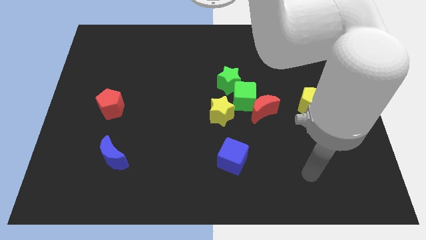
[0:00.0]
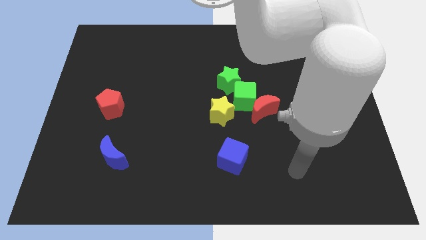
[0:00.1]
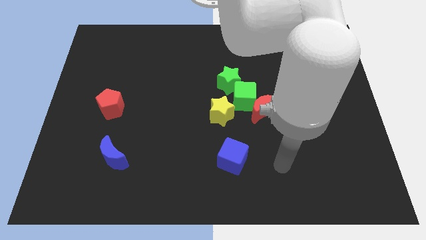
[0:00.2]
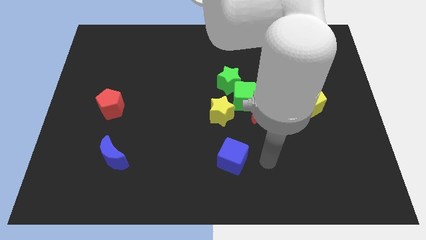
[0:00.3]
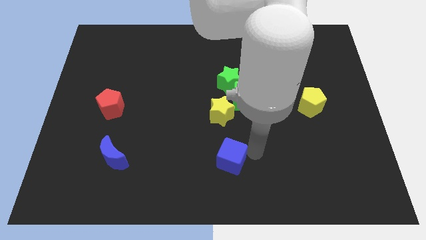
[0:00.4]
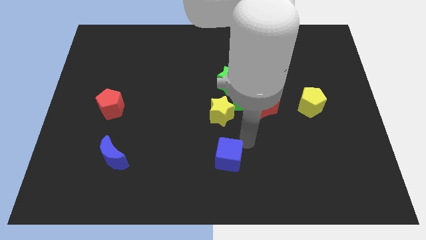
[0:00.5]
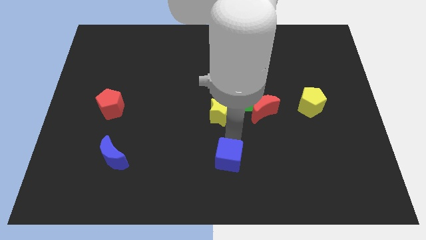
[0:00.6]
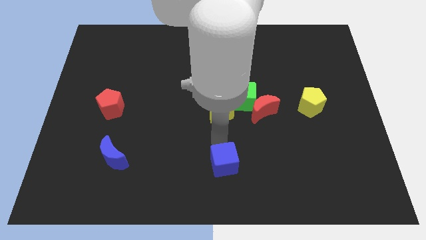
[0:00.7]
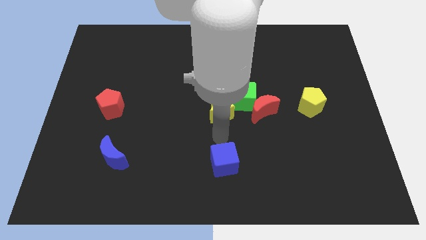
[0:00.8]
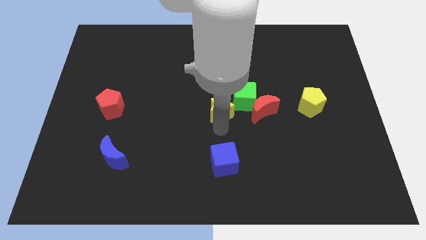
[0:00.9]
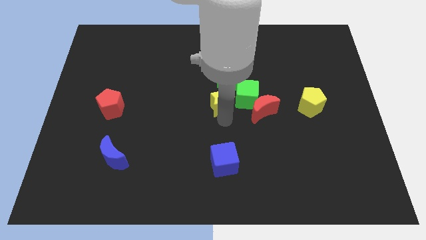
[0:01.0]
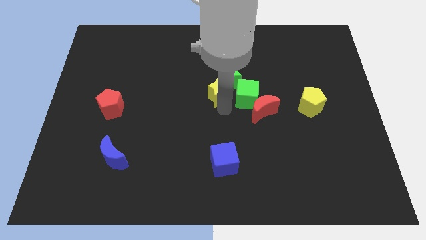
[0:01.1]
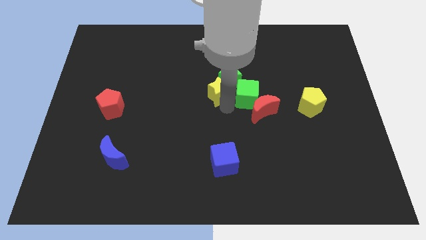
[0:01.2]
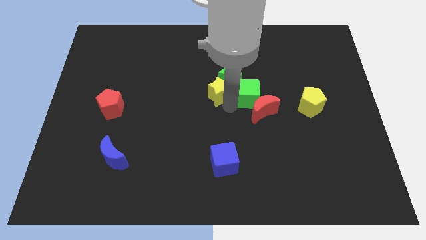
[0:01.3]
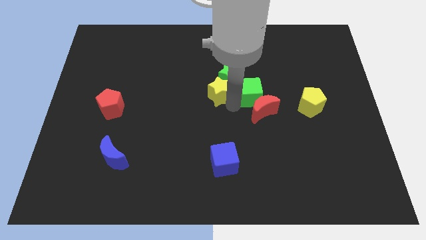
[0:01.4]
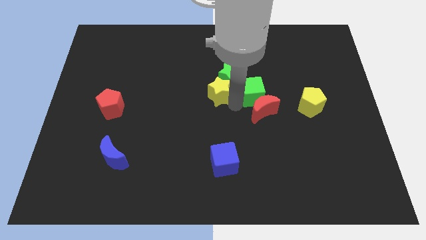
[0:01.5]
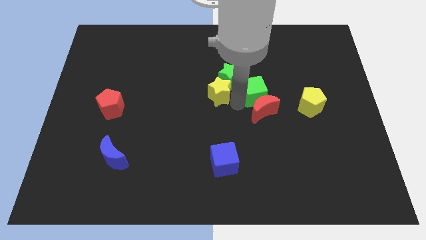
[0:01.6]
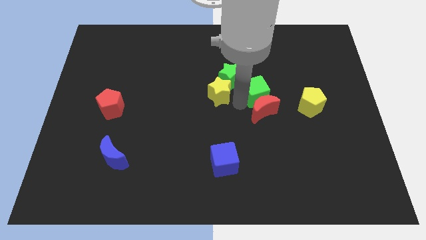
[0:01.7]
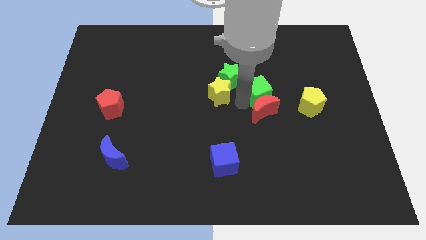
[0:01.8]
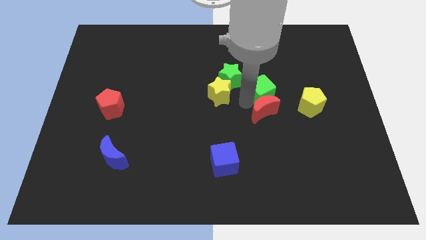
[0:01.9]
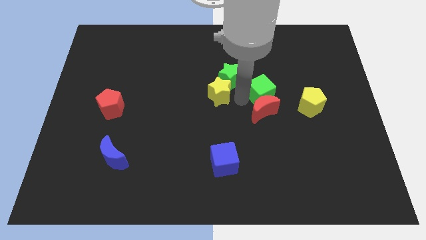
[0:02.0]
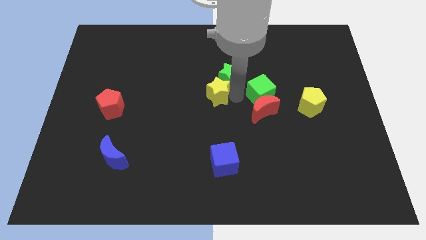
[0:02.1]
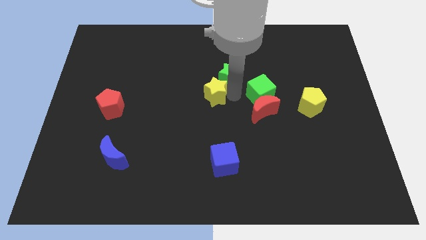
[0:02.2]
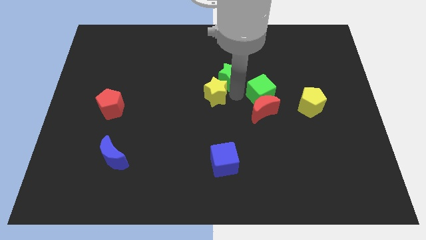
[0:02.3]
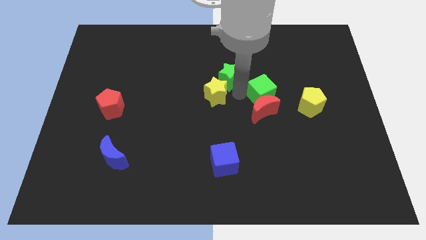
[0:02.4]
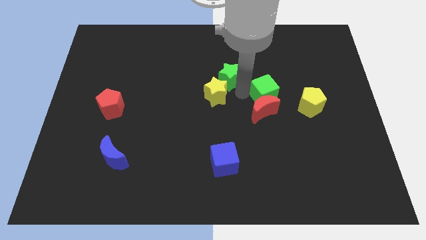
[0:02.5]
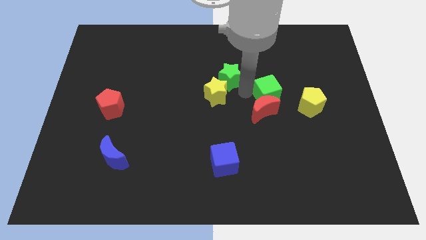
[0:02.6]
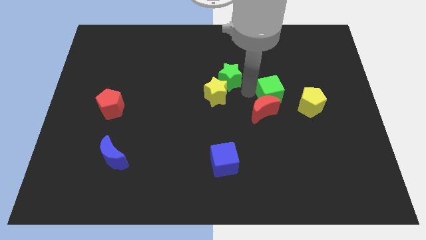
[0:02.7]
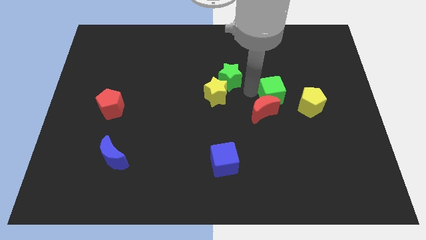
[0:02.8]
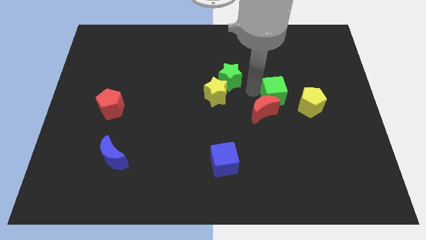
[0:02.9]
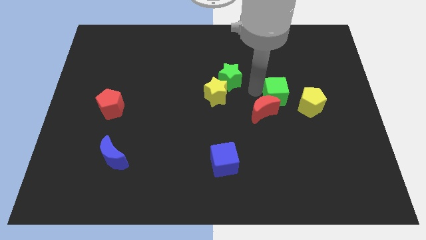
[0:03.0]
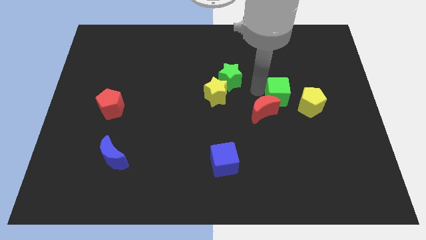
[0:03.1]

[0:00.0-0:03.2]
pull the green cube apart from the group of blocks

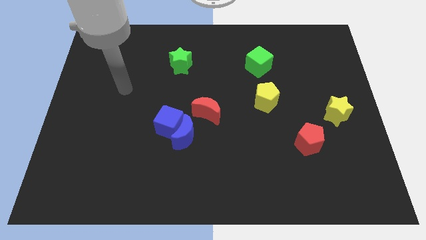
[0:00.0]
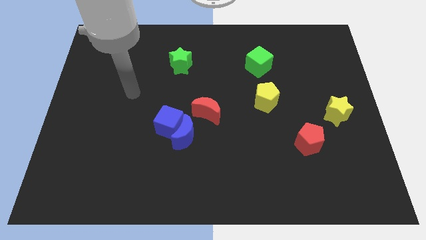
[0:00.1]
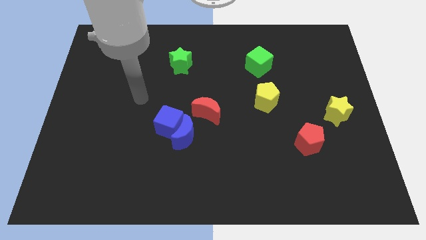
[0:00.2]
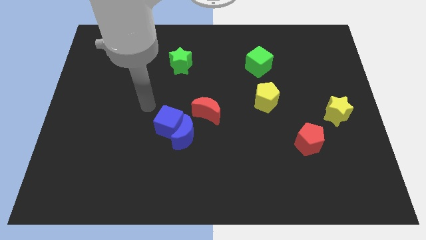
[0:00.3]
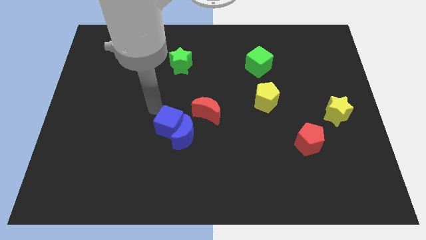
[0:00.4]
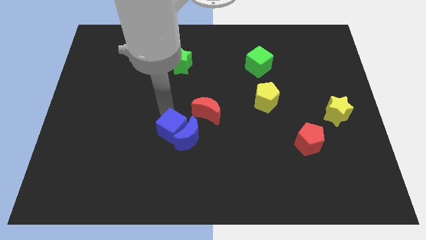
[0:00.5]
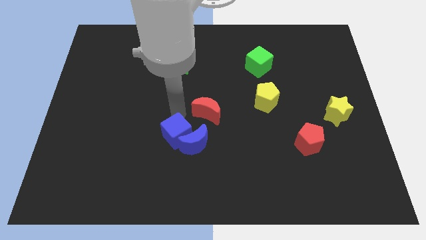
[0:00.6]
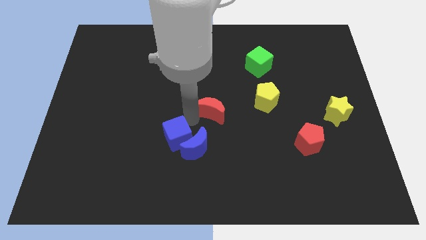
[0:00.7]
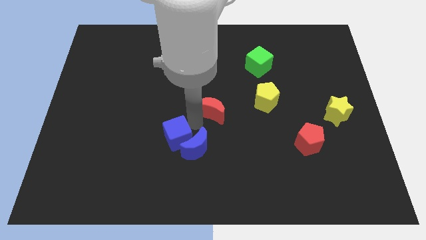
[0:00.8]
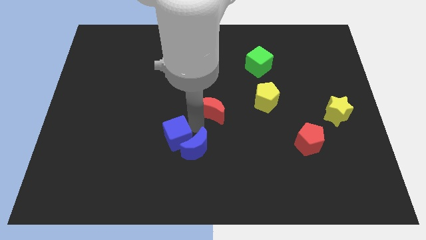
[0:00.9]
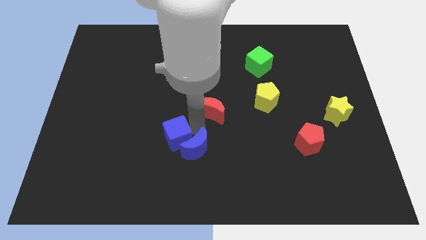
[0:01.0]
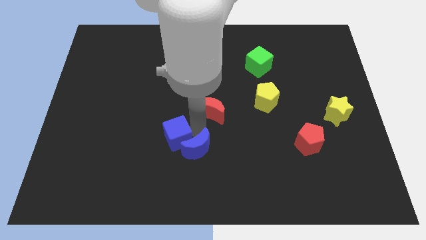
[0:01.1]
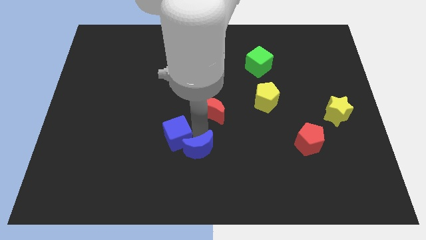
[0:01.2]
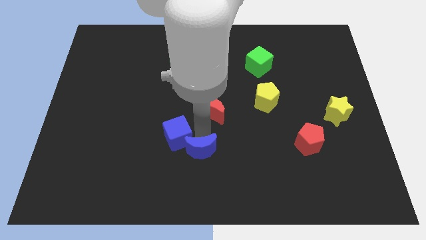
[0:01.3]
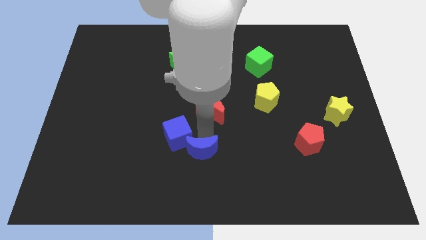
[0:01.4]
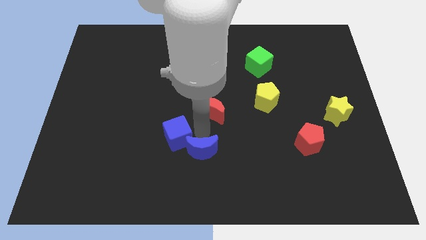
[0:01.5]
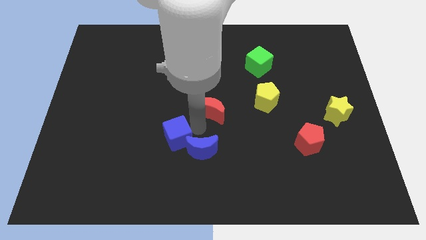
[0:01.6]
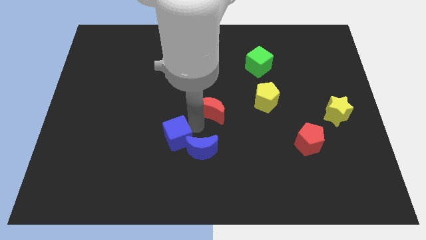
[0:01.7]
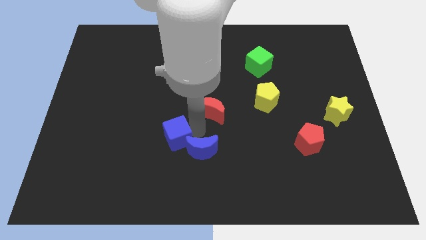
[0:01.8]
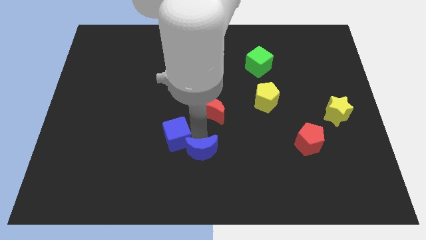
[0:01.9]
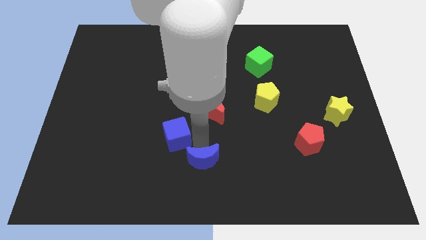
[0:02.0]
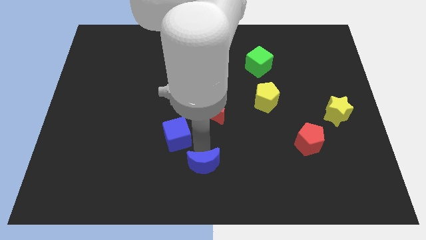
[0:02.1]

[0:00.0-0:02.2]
separate the blue moon from the blue cube and red moon

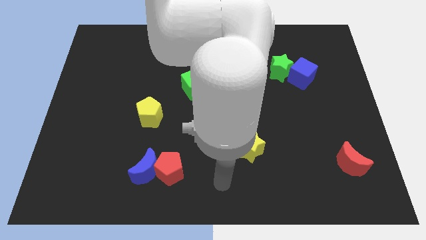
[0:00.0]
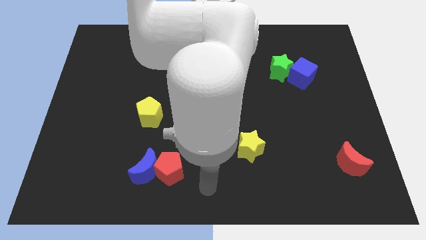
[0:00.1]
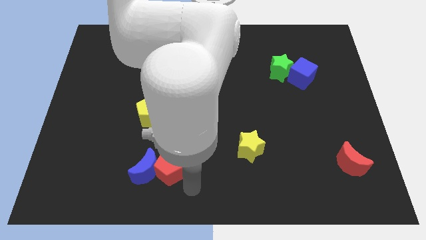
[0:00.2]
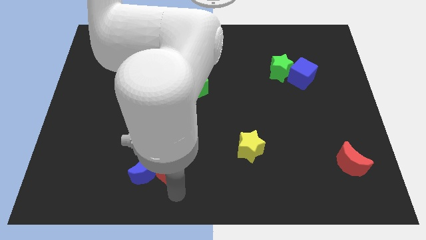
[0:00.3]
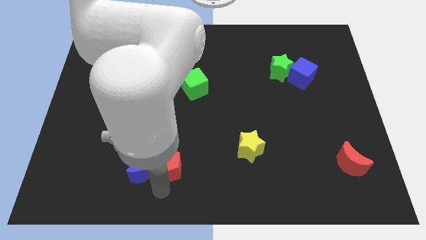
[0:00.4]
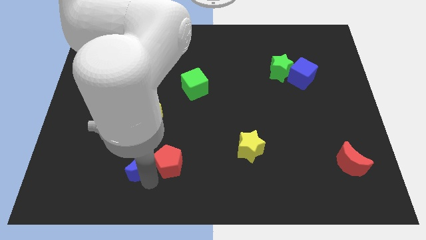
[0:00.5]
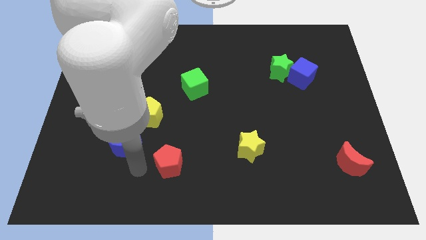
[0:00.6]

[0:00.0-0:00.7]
separate the red pentagon from the blue moon

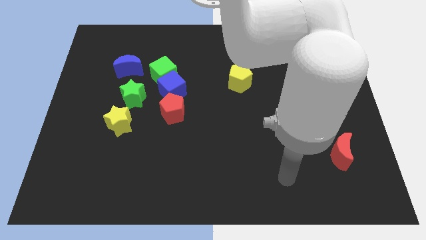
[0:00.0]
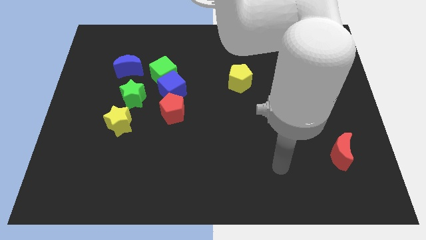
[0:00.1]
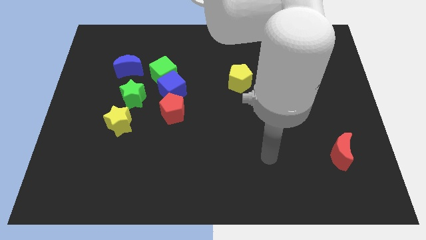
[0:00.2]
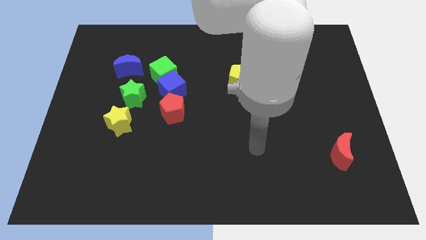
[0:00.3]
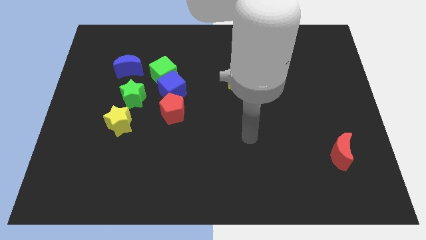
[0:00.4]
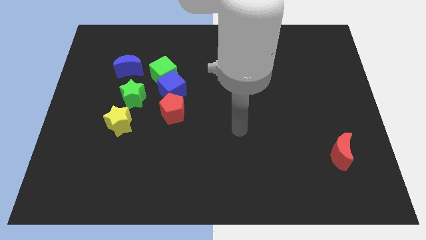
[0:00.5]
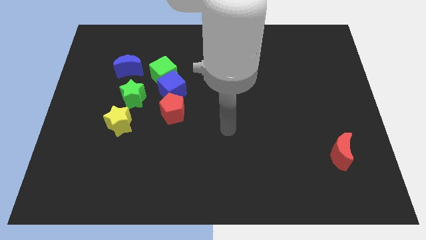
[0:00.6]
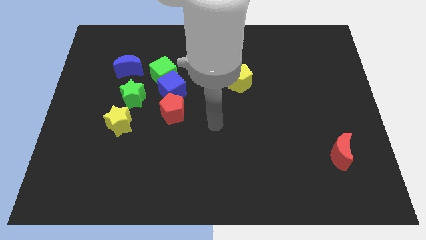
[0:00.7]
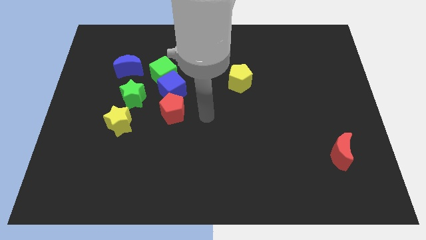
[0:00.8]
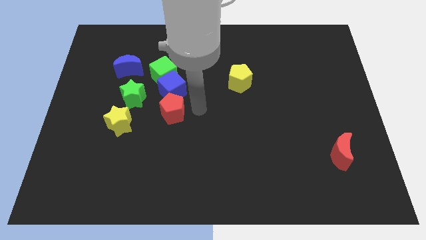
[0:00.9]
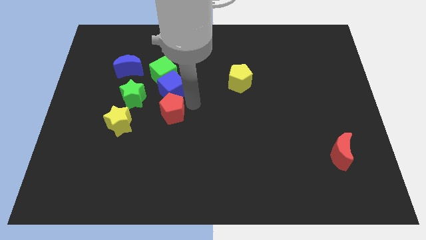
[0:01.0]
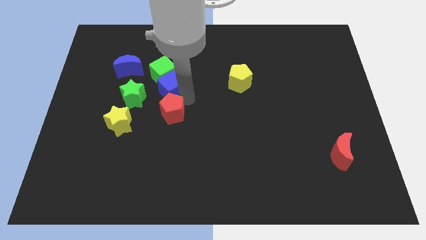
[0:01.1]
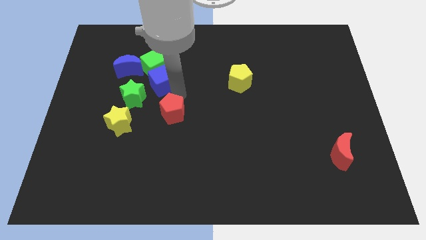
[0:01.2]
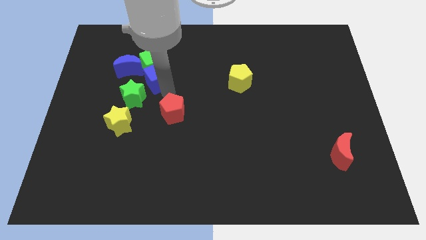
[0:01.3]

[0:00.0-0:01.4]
move the red pentagon away from the blue cube

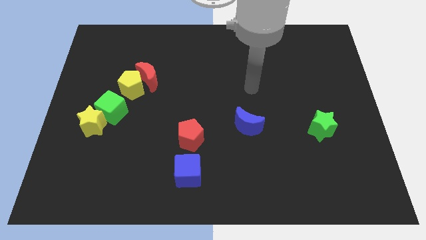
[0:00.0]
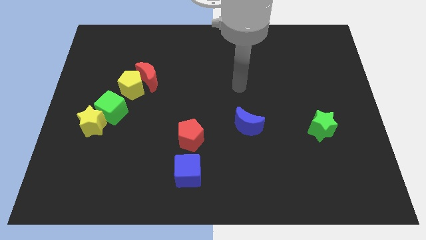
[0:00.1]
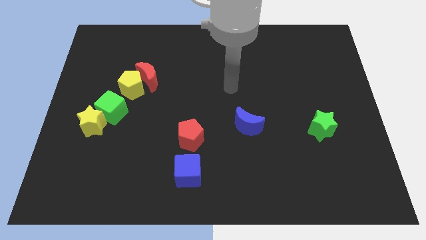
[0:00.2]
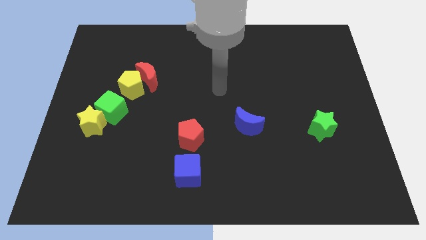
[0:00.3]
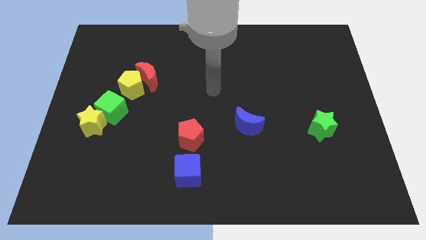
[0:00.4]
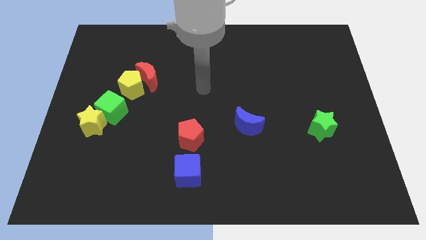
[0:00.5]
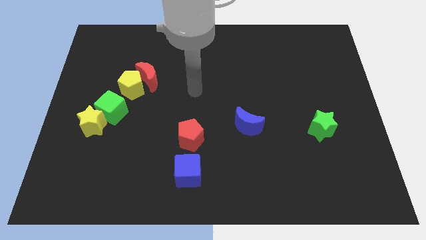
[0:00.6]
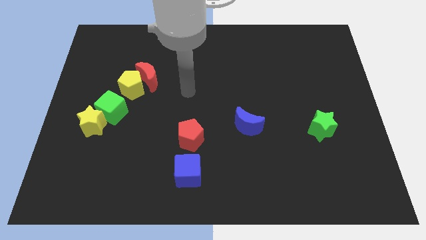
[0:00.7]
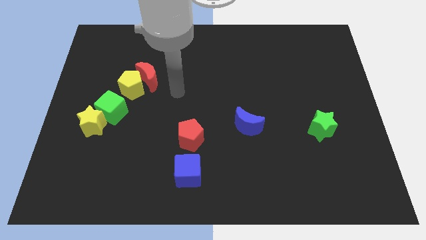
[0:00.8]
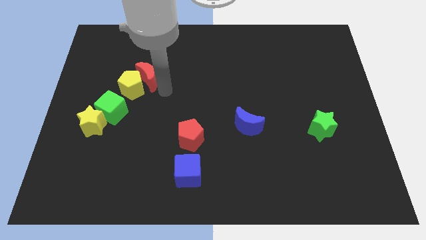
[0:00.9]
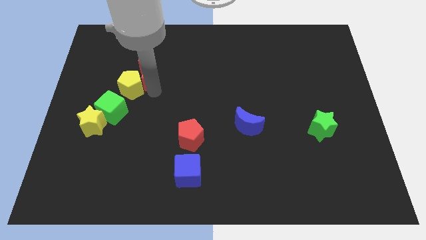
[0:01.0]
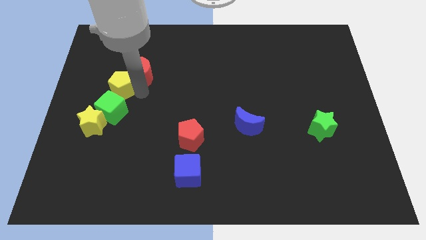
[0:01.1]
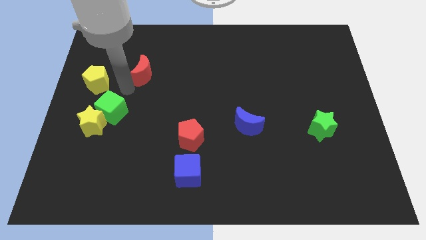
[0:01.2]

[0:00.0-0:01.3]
move the red moon away from the yellow pentagon

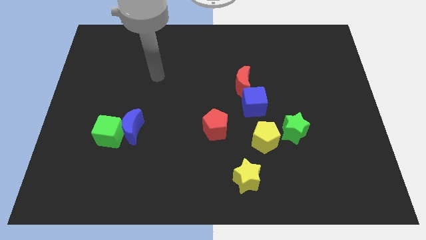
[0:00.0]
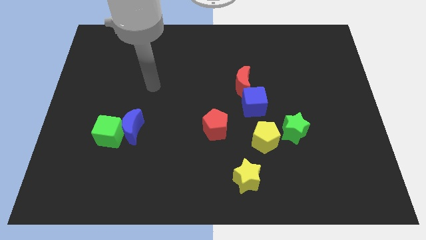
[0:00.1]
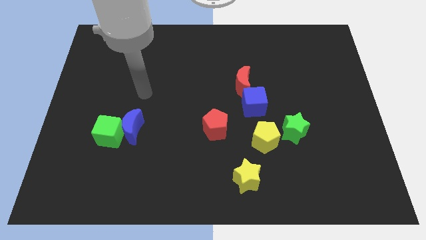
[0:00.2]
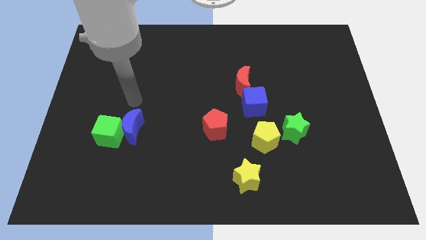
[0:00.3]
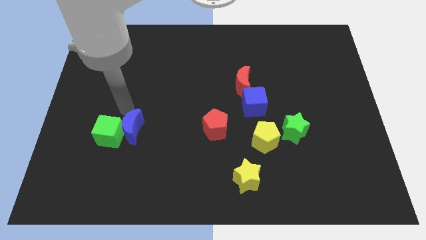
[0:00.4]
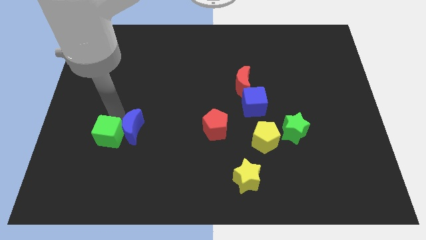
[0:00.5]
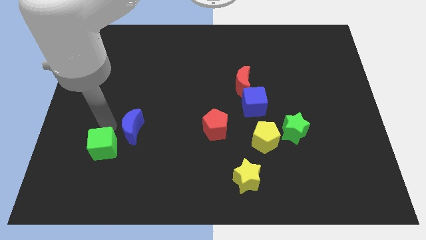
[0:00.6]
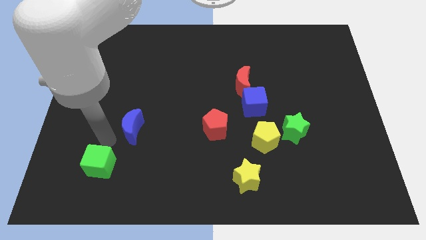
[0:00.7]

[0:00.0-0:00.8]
move the blue moon away from the green cube
